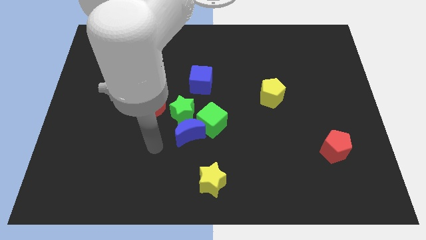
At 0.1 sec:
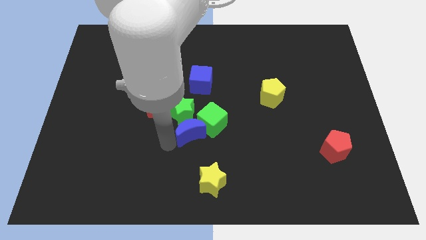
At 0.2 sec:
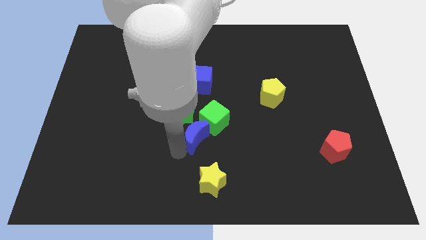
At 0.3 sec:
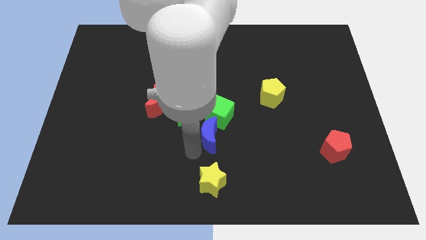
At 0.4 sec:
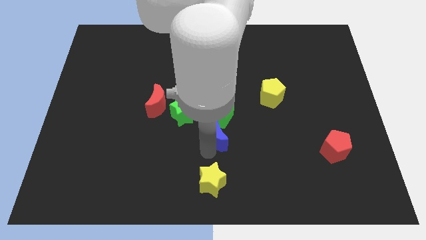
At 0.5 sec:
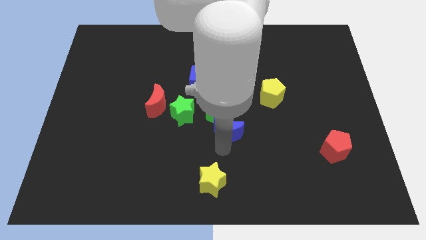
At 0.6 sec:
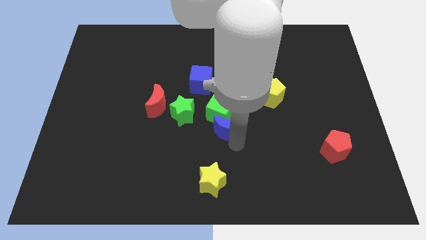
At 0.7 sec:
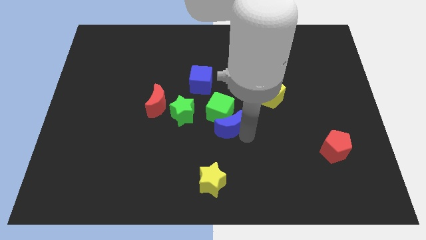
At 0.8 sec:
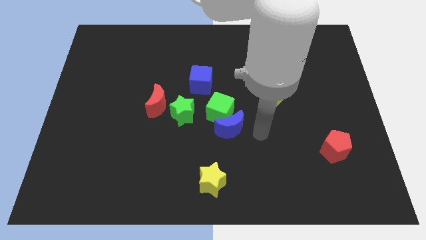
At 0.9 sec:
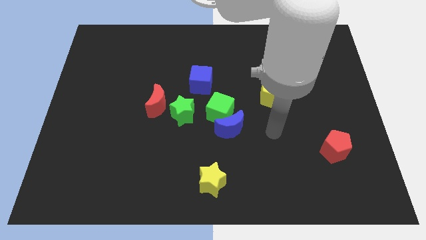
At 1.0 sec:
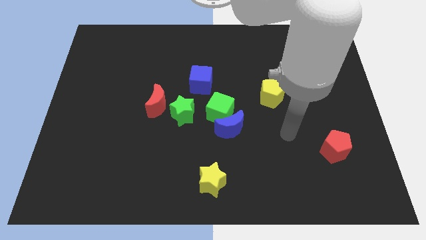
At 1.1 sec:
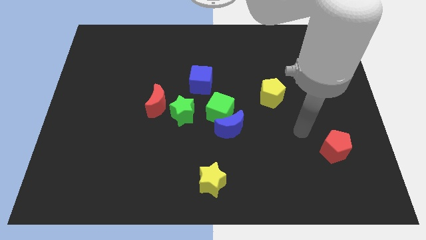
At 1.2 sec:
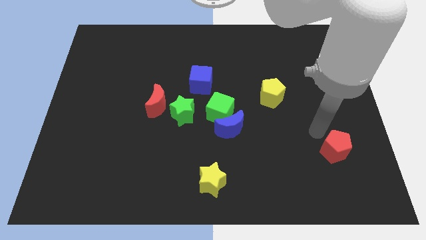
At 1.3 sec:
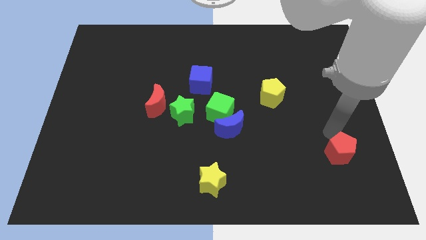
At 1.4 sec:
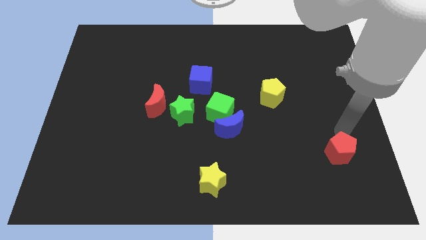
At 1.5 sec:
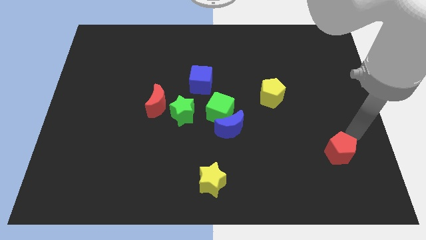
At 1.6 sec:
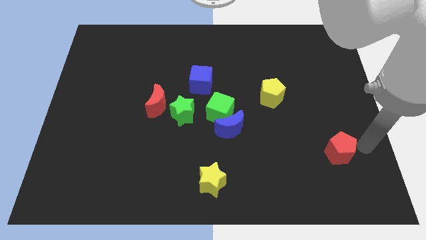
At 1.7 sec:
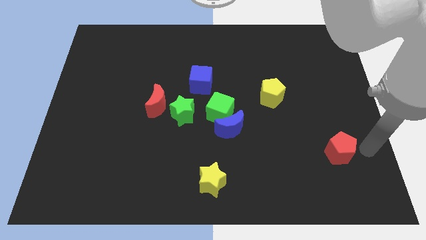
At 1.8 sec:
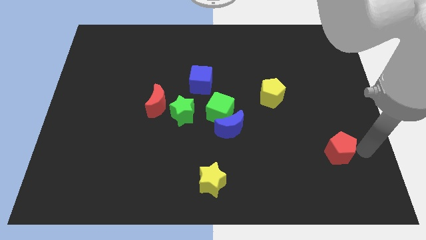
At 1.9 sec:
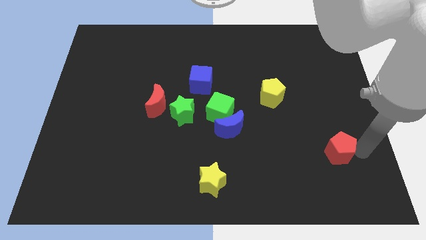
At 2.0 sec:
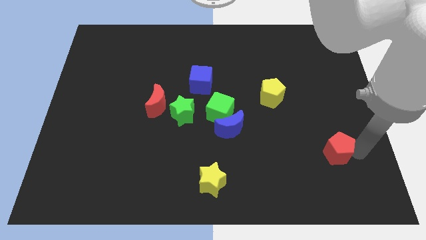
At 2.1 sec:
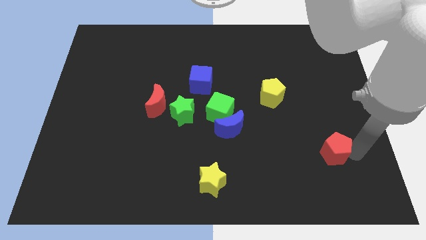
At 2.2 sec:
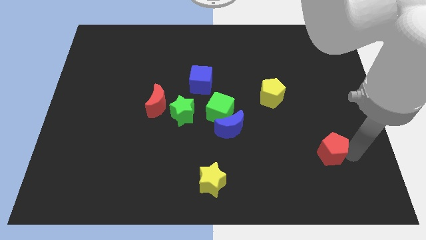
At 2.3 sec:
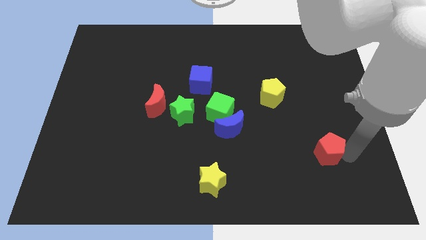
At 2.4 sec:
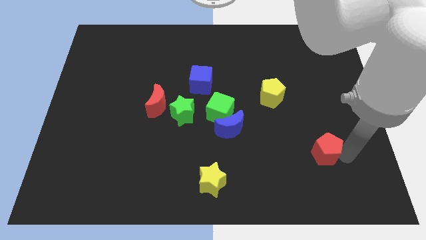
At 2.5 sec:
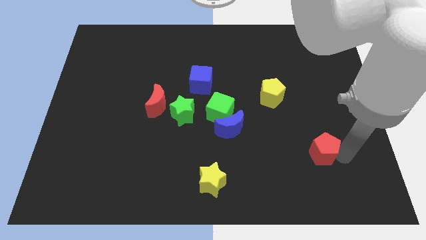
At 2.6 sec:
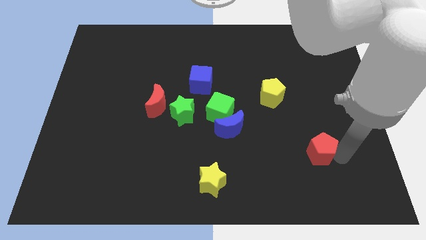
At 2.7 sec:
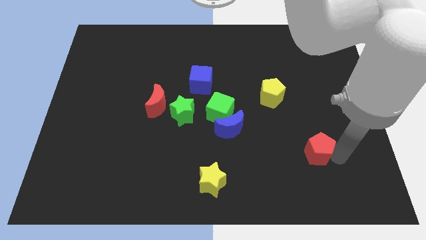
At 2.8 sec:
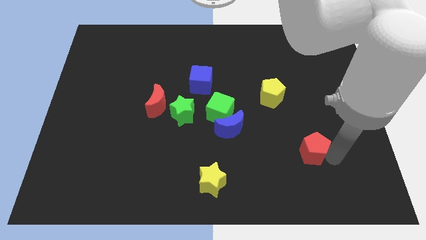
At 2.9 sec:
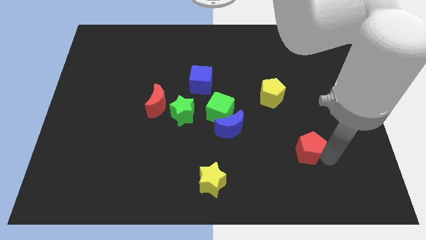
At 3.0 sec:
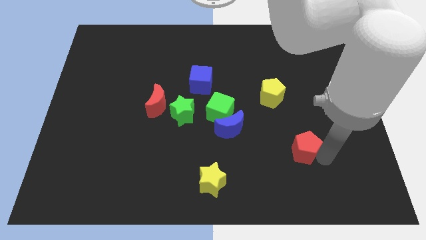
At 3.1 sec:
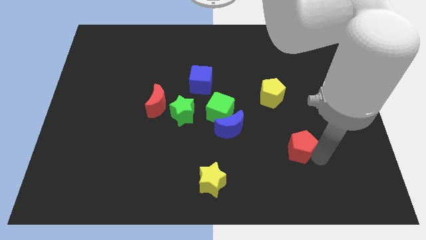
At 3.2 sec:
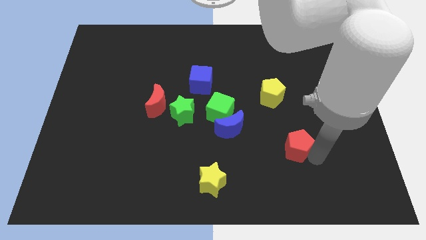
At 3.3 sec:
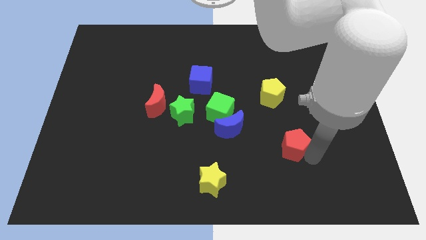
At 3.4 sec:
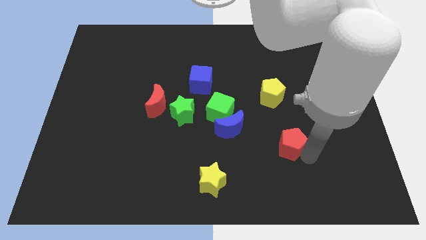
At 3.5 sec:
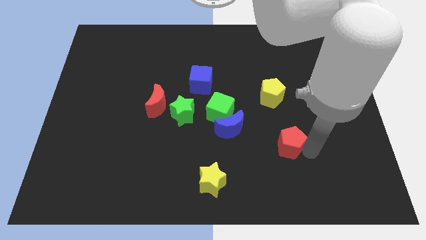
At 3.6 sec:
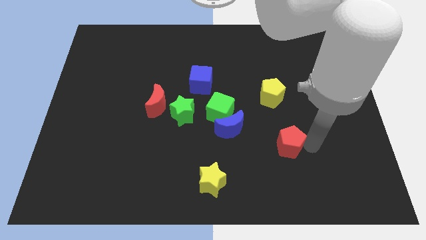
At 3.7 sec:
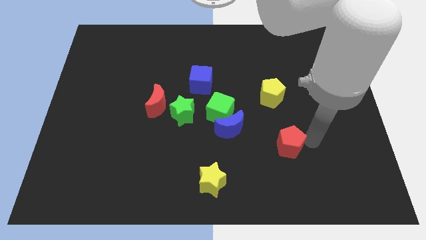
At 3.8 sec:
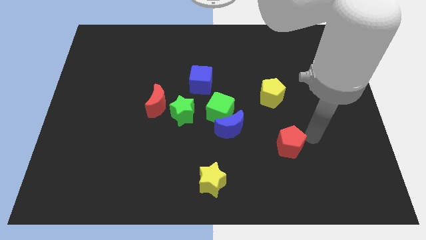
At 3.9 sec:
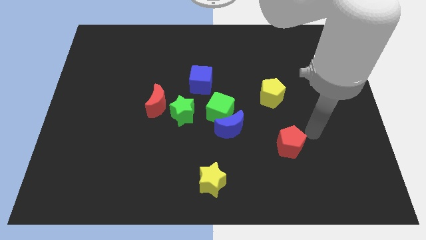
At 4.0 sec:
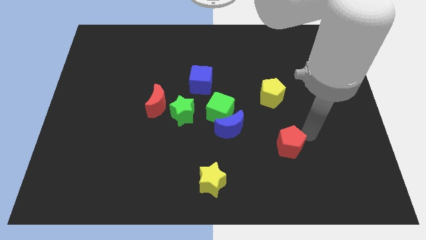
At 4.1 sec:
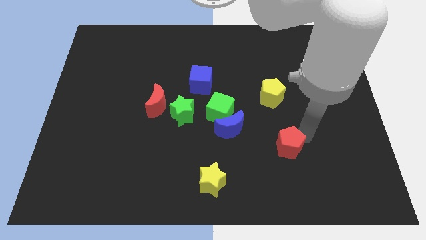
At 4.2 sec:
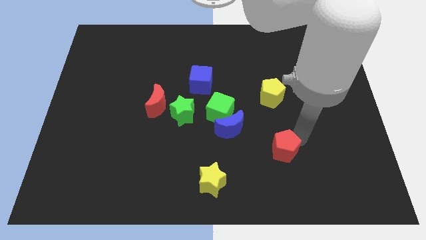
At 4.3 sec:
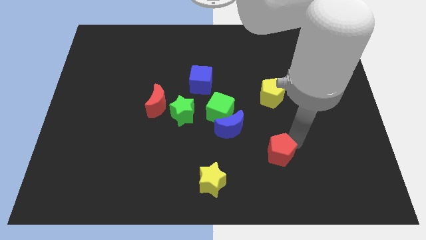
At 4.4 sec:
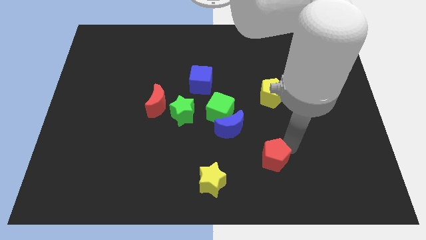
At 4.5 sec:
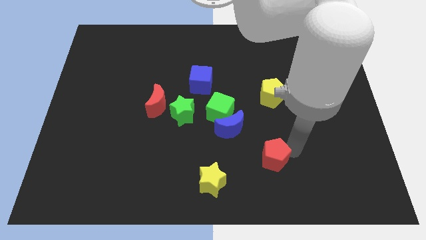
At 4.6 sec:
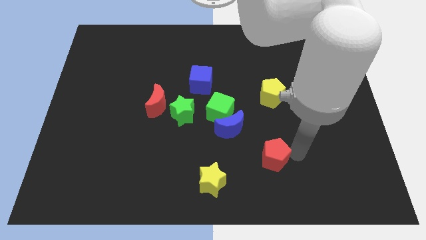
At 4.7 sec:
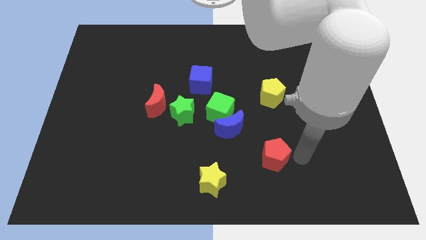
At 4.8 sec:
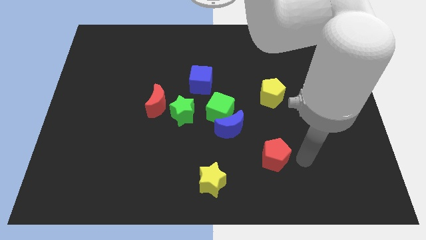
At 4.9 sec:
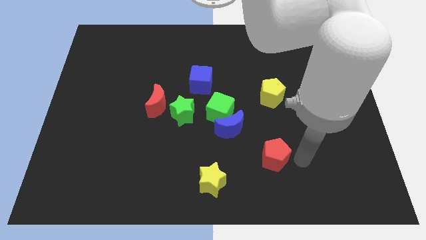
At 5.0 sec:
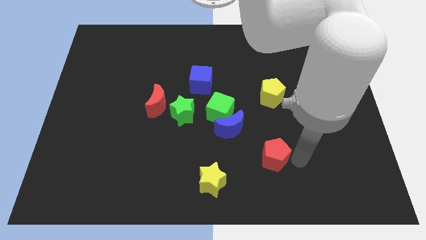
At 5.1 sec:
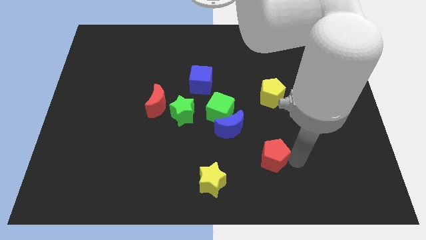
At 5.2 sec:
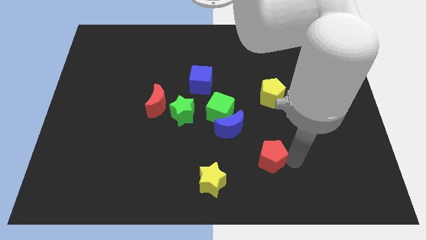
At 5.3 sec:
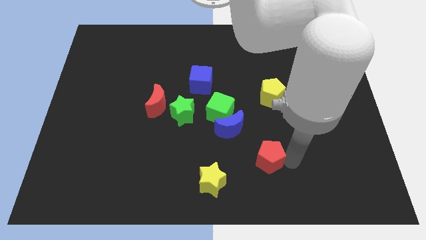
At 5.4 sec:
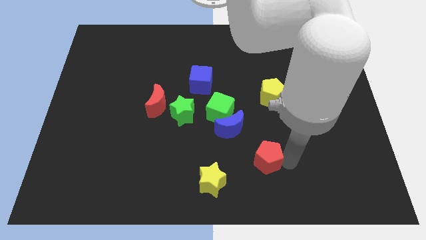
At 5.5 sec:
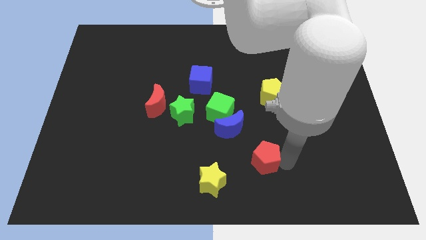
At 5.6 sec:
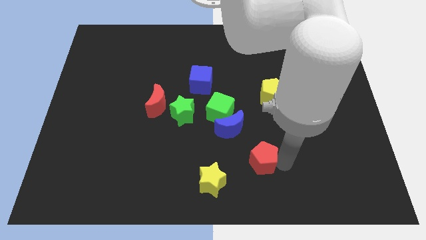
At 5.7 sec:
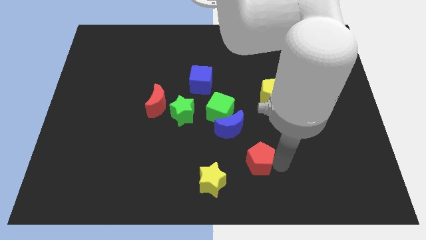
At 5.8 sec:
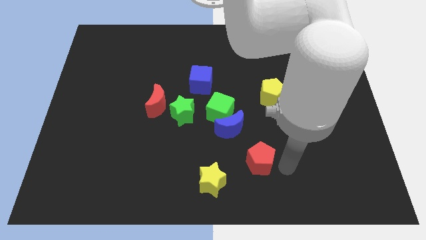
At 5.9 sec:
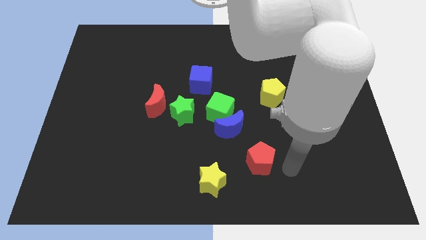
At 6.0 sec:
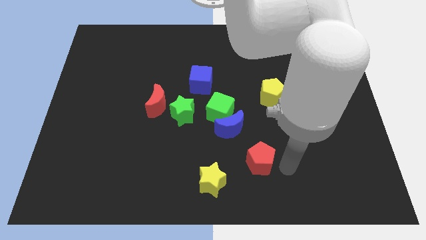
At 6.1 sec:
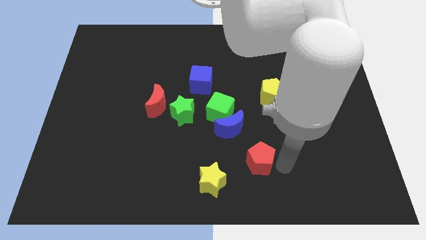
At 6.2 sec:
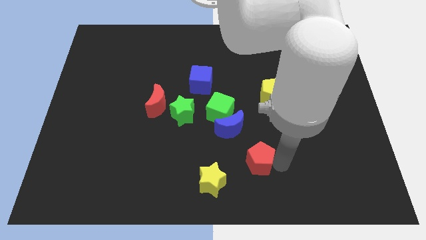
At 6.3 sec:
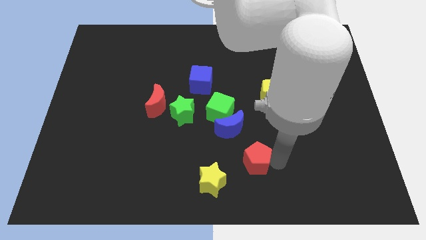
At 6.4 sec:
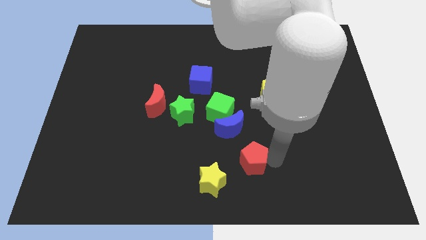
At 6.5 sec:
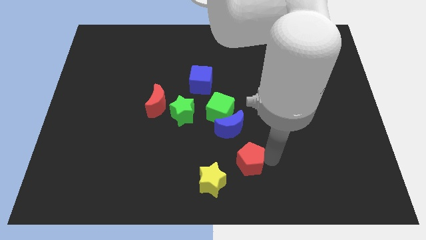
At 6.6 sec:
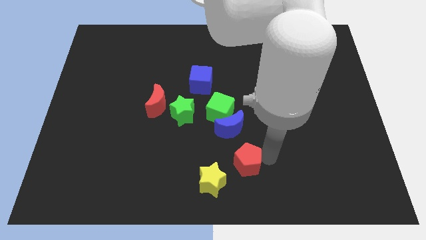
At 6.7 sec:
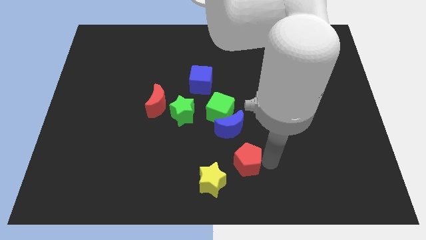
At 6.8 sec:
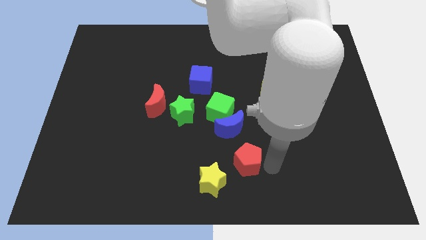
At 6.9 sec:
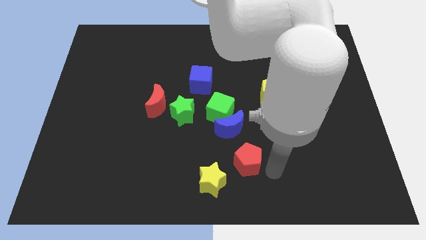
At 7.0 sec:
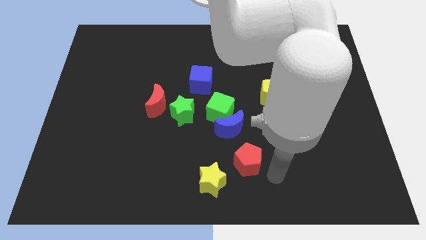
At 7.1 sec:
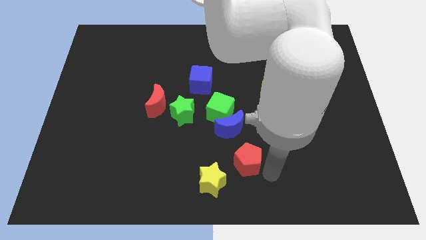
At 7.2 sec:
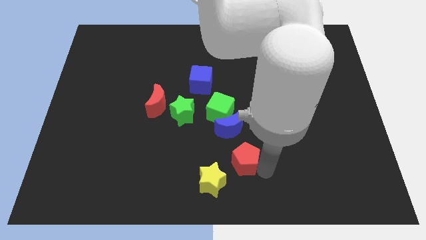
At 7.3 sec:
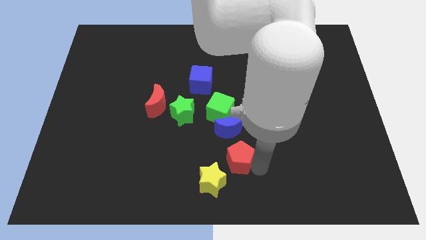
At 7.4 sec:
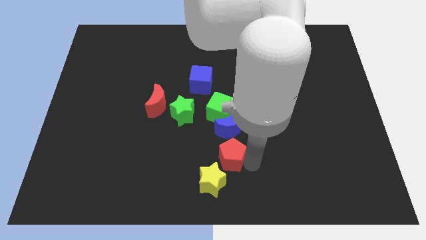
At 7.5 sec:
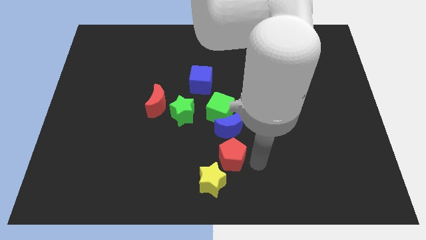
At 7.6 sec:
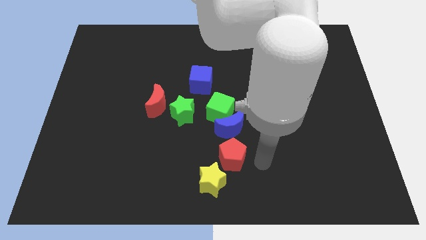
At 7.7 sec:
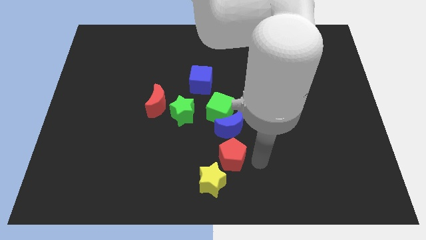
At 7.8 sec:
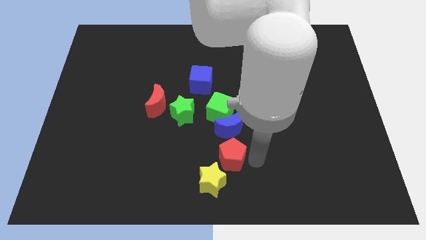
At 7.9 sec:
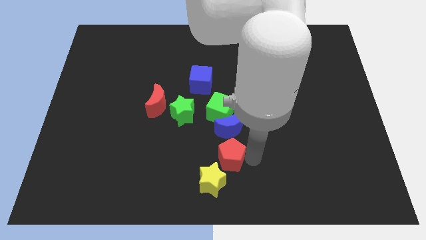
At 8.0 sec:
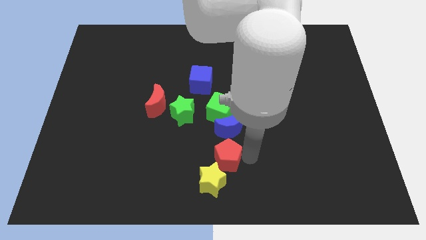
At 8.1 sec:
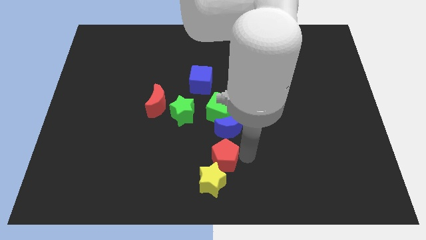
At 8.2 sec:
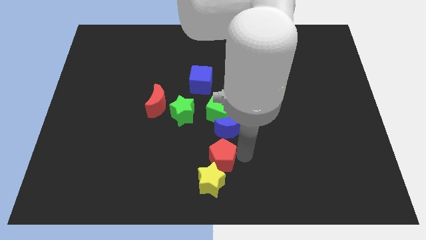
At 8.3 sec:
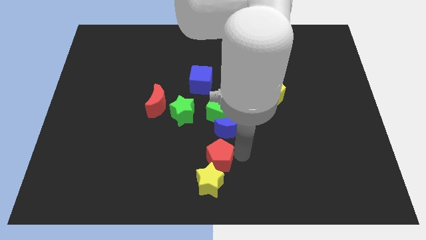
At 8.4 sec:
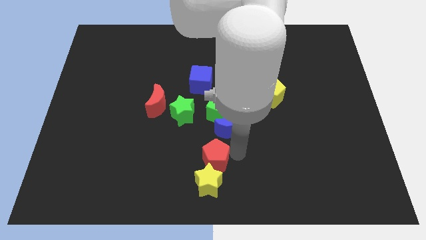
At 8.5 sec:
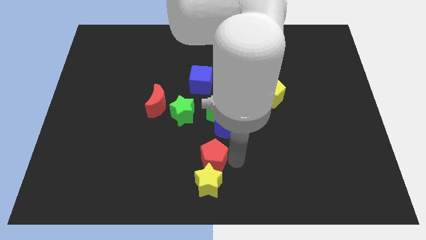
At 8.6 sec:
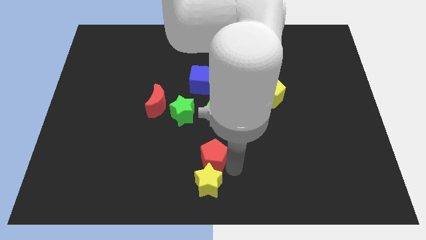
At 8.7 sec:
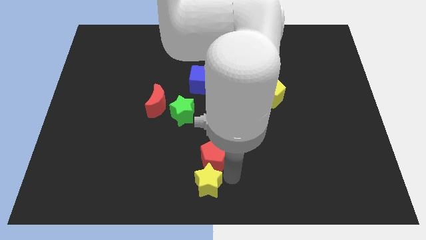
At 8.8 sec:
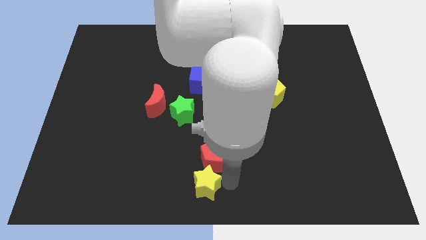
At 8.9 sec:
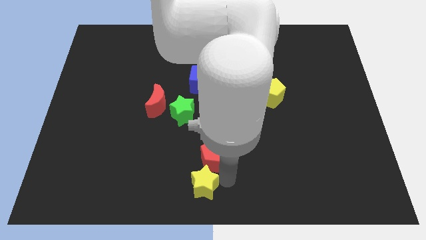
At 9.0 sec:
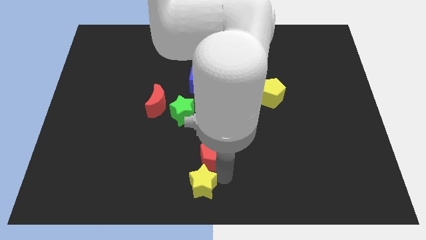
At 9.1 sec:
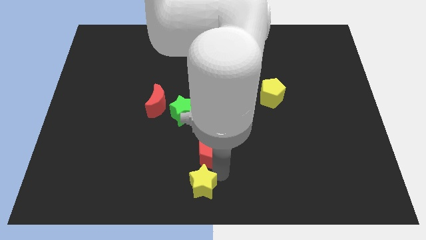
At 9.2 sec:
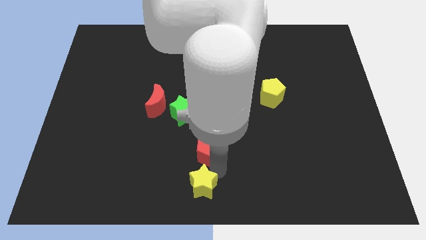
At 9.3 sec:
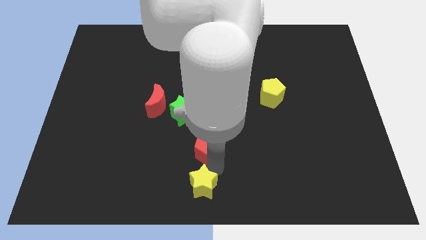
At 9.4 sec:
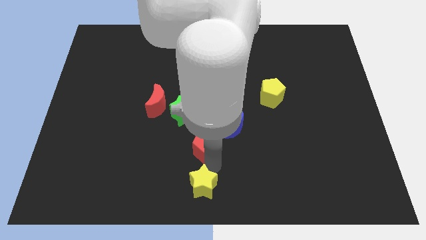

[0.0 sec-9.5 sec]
put the red pentagon to the bottom left side of the green cube
